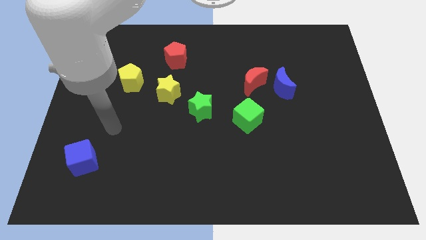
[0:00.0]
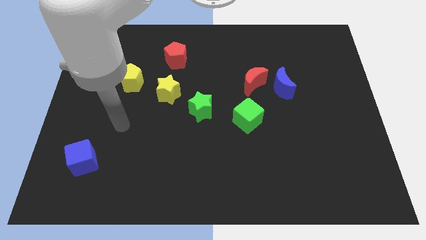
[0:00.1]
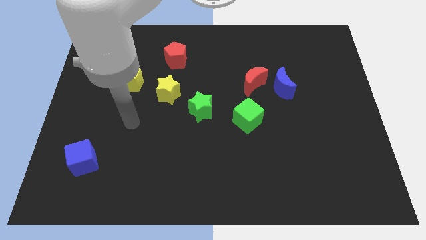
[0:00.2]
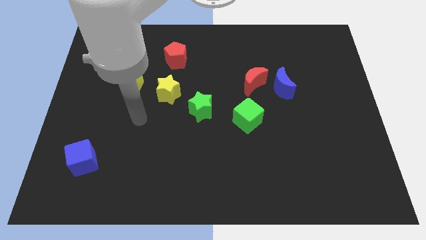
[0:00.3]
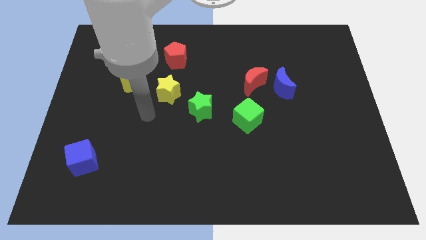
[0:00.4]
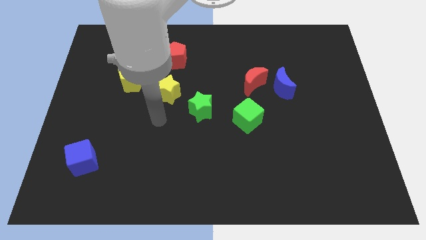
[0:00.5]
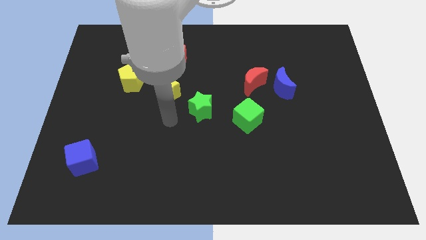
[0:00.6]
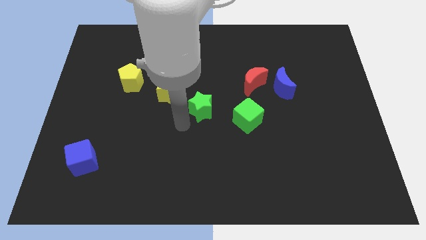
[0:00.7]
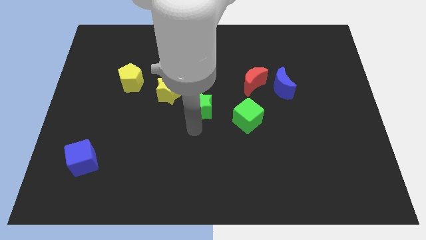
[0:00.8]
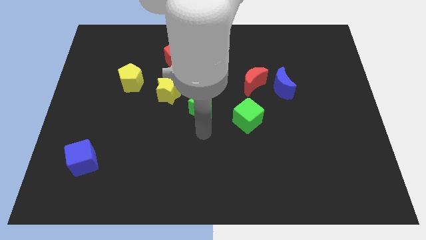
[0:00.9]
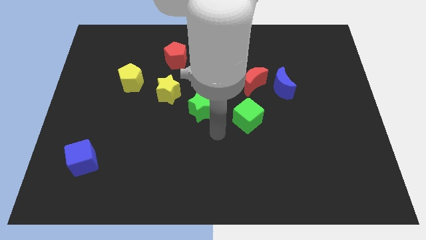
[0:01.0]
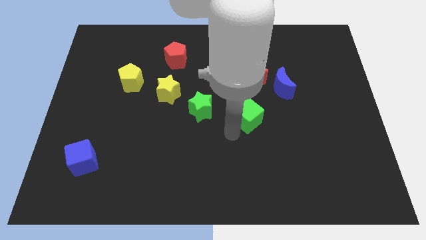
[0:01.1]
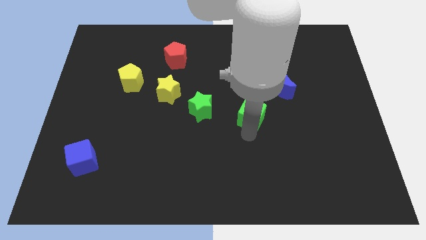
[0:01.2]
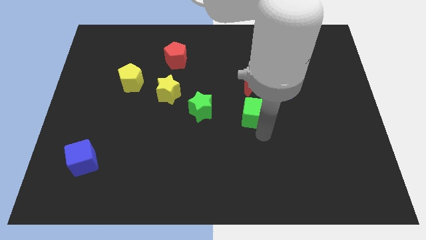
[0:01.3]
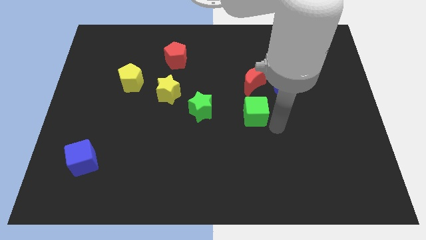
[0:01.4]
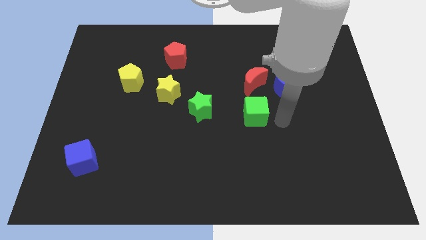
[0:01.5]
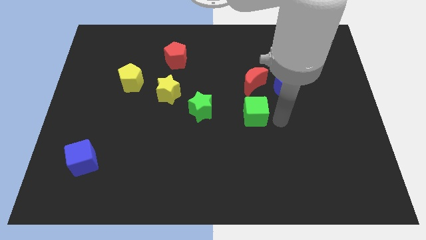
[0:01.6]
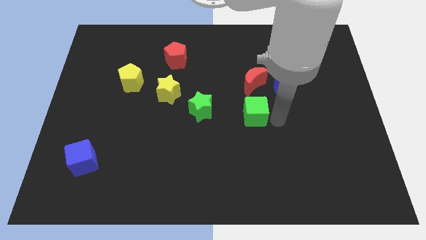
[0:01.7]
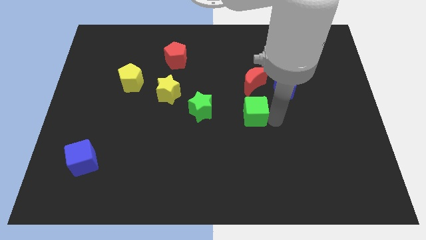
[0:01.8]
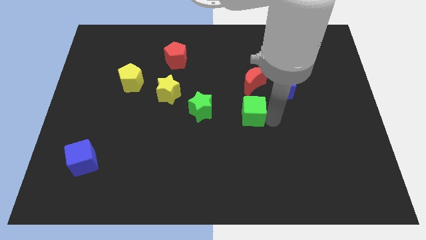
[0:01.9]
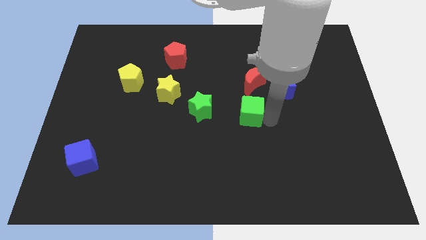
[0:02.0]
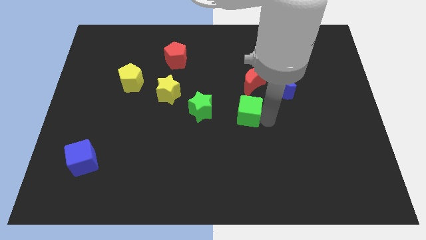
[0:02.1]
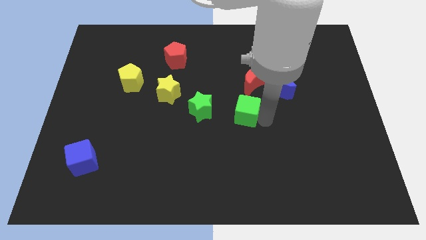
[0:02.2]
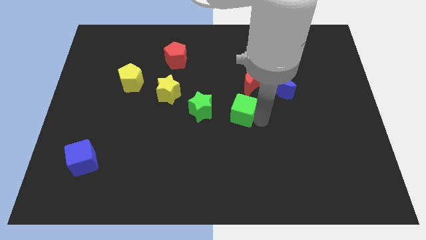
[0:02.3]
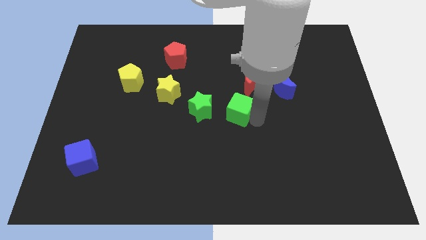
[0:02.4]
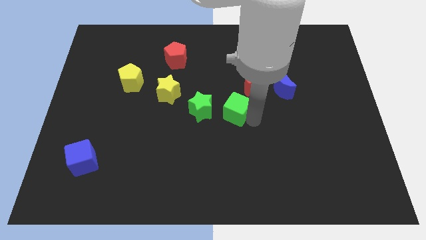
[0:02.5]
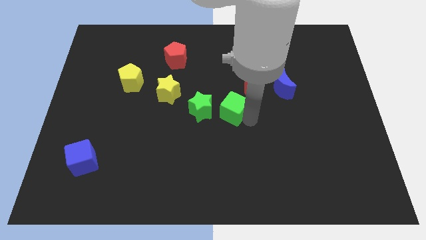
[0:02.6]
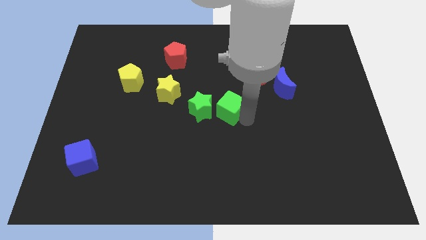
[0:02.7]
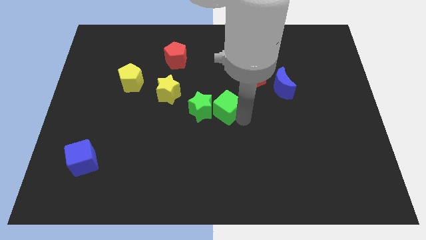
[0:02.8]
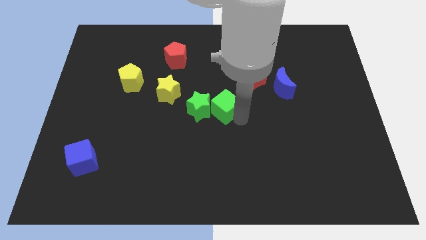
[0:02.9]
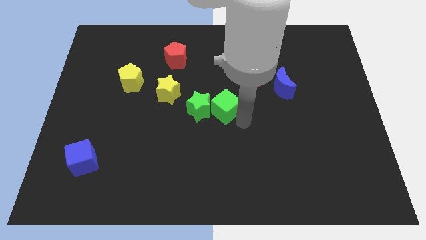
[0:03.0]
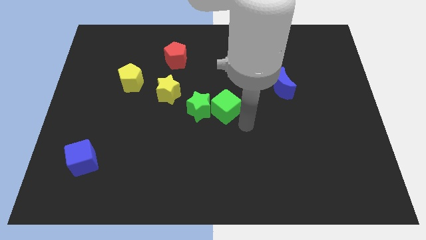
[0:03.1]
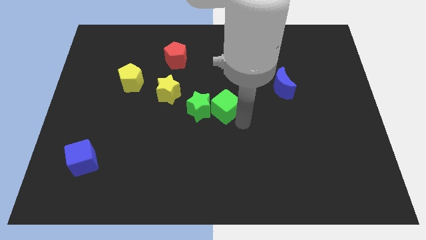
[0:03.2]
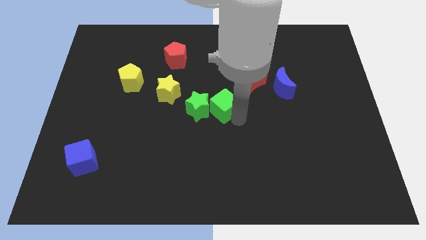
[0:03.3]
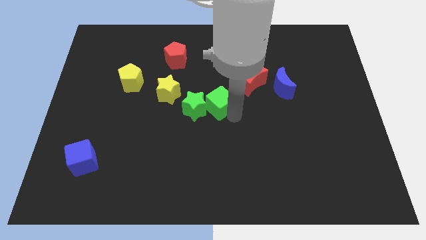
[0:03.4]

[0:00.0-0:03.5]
slightly slide the green cube diagonally upwards and to the left

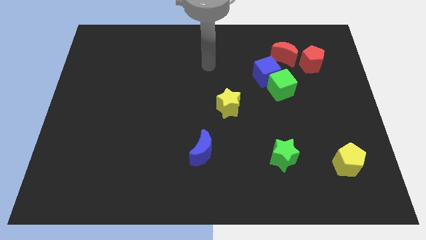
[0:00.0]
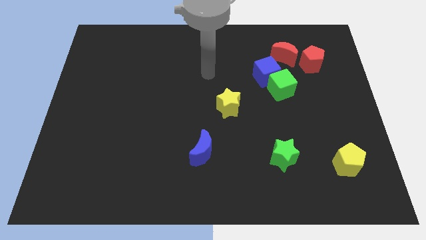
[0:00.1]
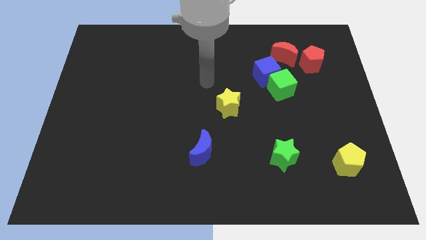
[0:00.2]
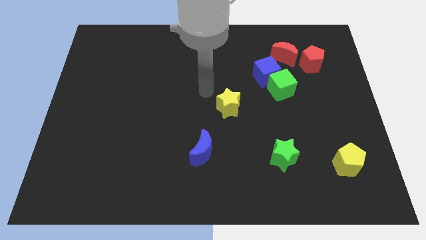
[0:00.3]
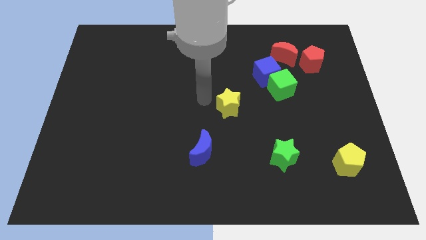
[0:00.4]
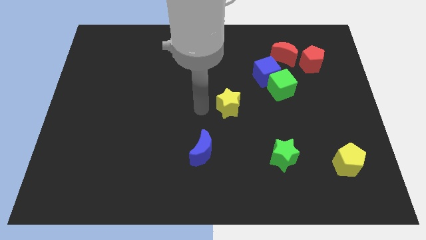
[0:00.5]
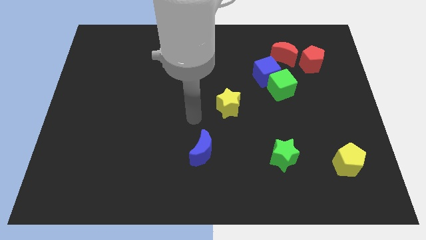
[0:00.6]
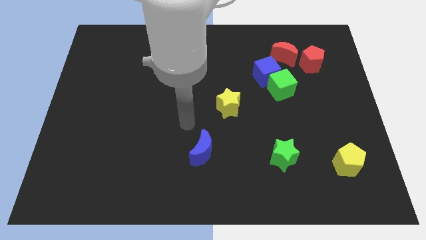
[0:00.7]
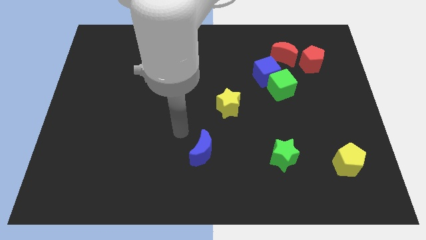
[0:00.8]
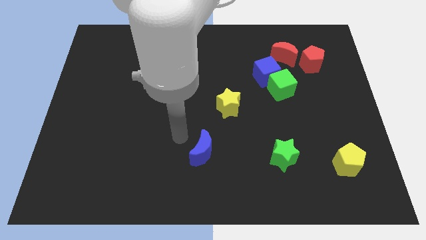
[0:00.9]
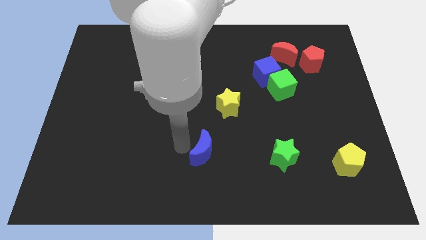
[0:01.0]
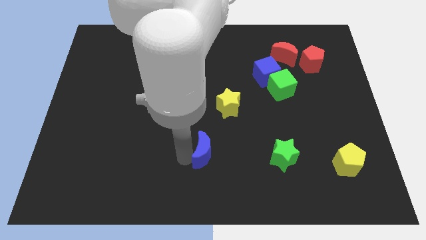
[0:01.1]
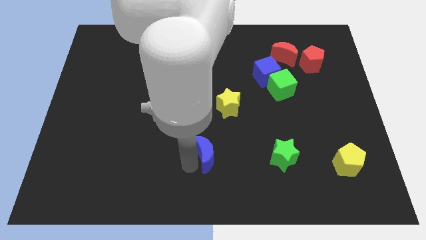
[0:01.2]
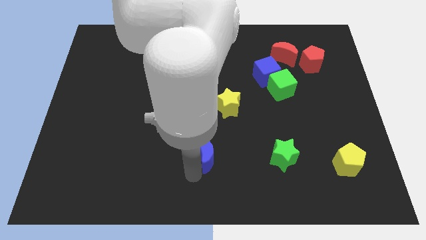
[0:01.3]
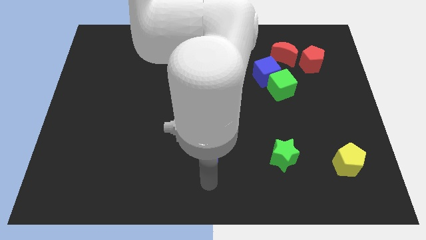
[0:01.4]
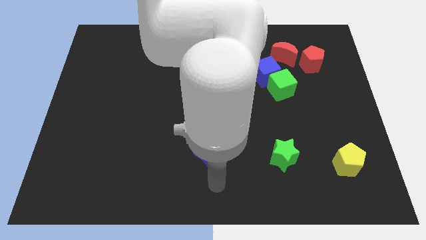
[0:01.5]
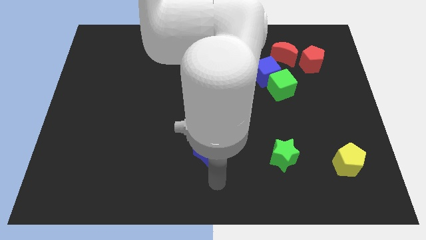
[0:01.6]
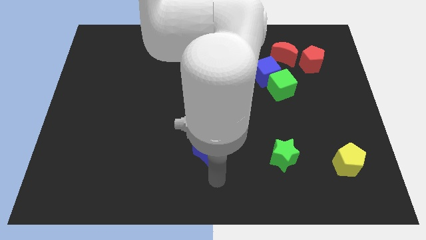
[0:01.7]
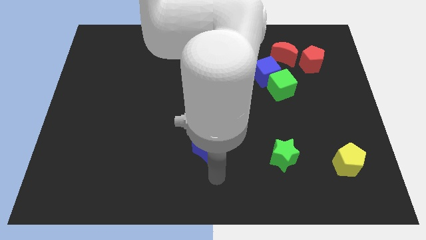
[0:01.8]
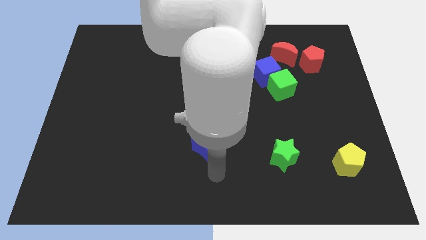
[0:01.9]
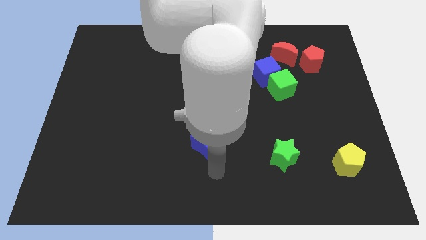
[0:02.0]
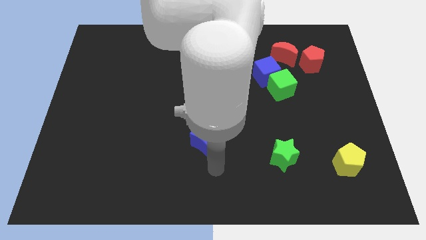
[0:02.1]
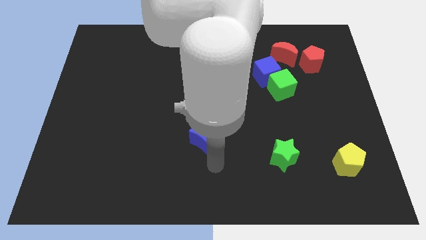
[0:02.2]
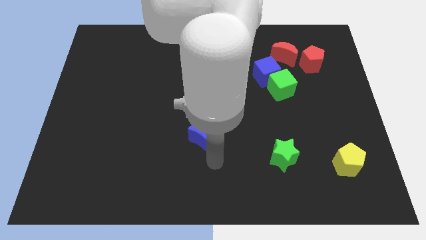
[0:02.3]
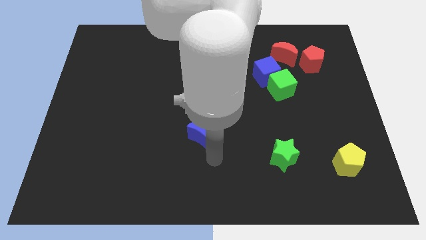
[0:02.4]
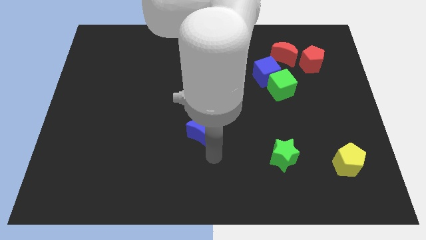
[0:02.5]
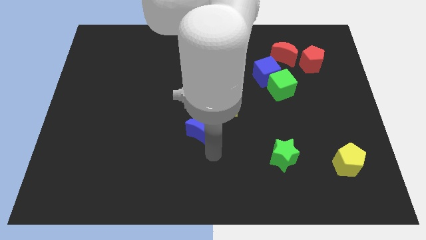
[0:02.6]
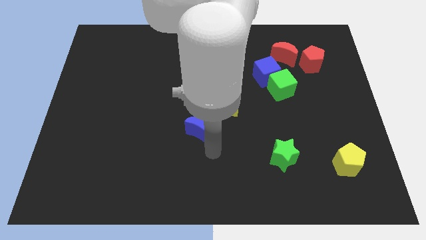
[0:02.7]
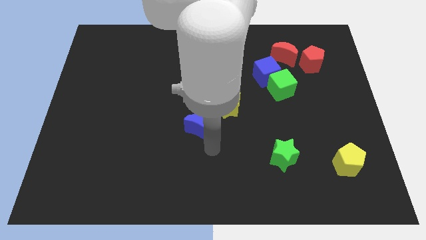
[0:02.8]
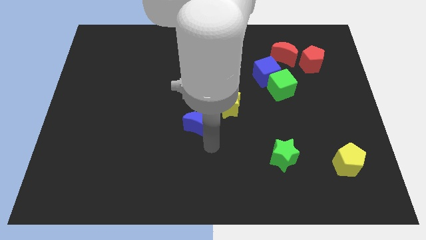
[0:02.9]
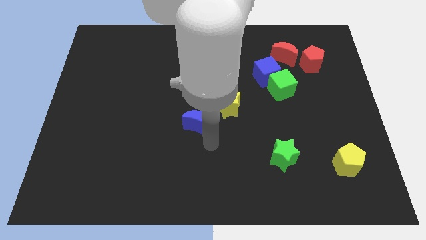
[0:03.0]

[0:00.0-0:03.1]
slightly move the blue moon upwards

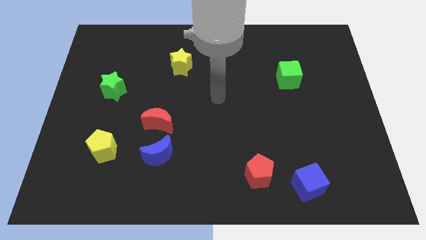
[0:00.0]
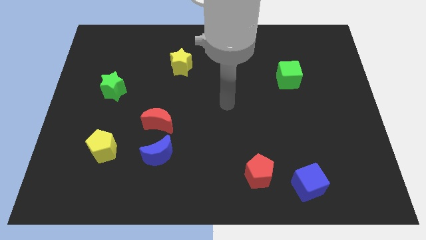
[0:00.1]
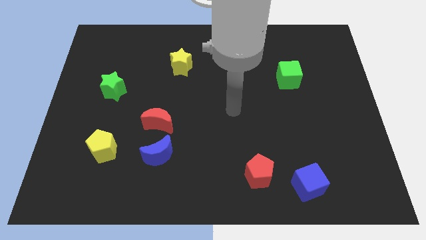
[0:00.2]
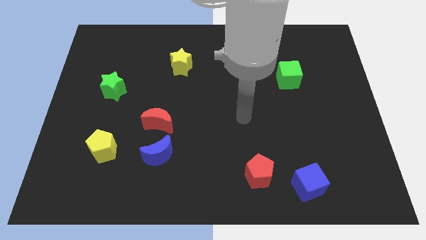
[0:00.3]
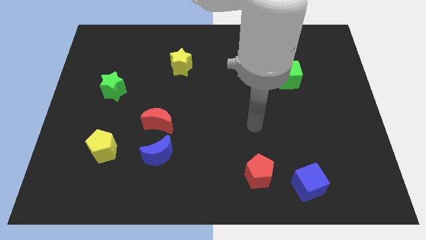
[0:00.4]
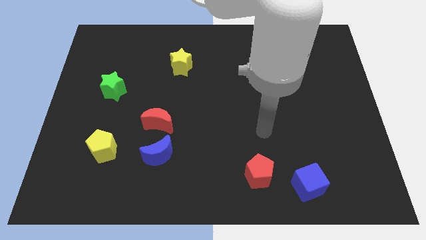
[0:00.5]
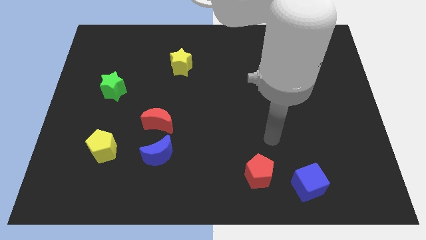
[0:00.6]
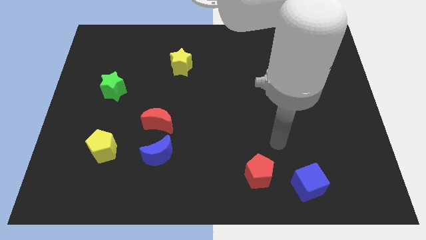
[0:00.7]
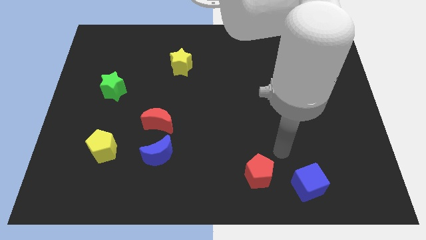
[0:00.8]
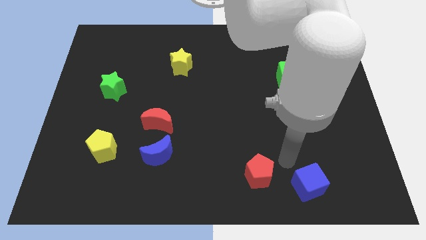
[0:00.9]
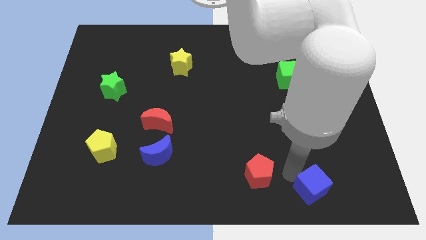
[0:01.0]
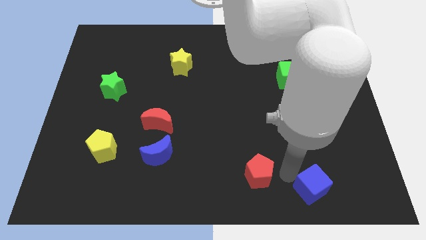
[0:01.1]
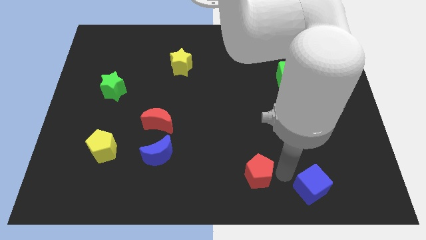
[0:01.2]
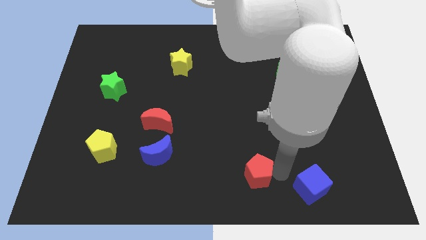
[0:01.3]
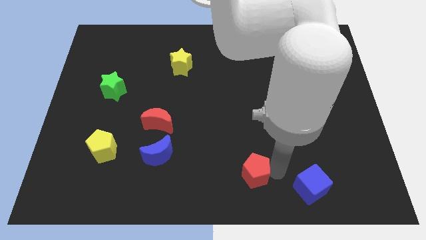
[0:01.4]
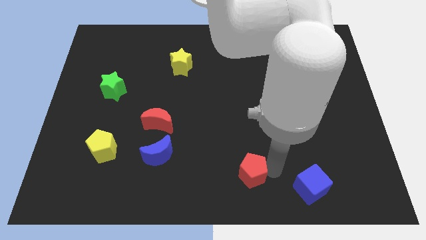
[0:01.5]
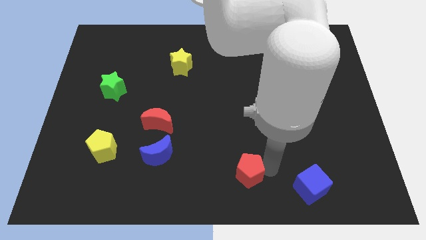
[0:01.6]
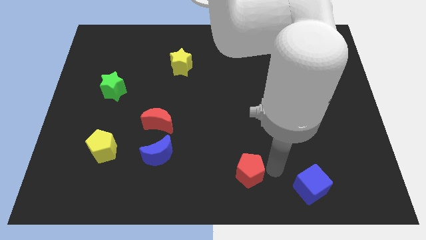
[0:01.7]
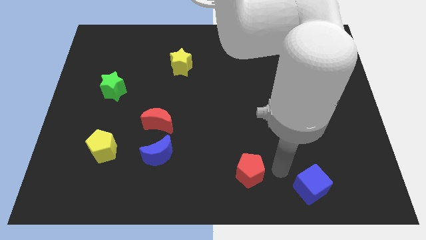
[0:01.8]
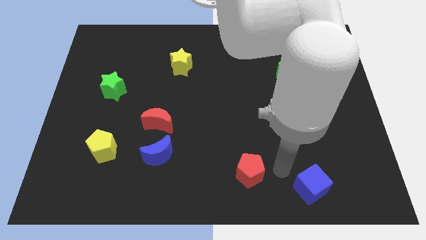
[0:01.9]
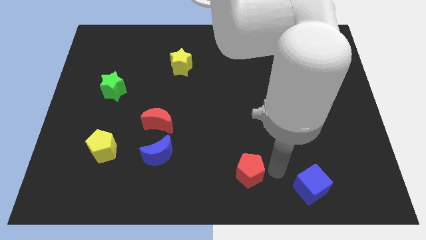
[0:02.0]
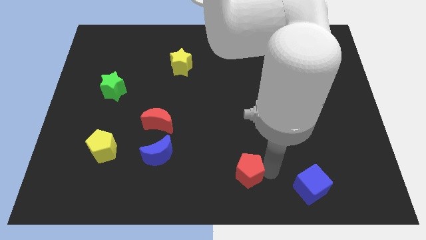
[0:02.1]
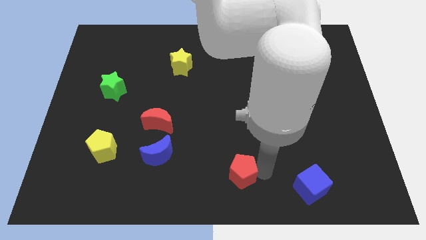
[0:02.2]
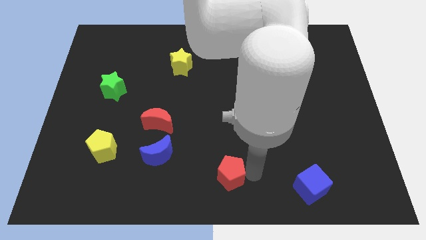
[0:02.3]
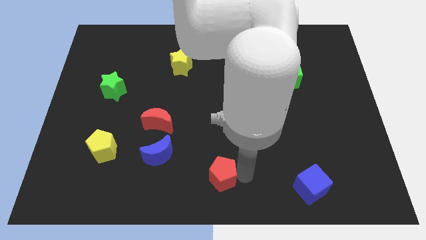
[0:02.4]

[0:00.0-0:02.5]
move the red pentagon slightly left
